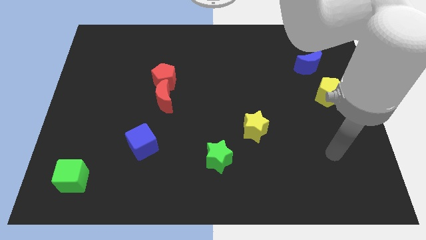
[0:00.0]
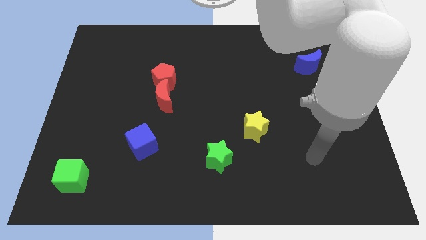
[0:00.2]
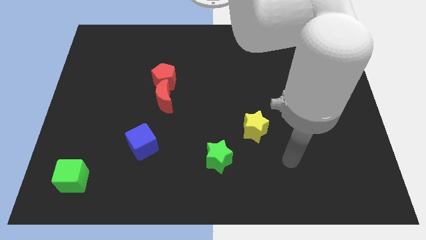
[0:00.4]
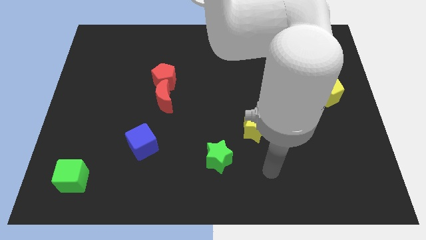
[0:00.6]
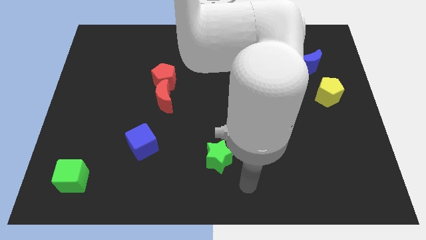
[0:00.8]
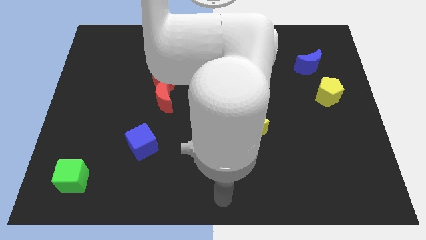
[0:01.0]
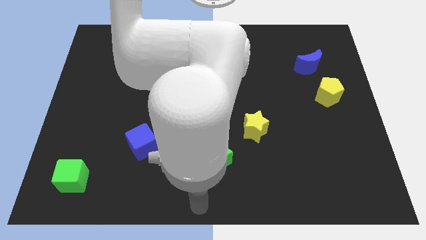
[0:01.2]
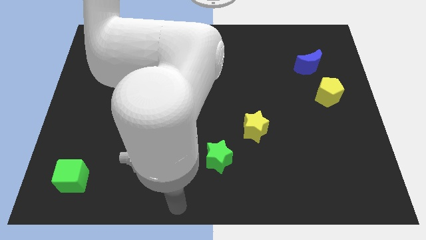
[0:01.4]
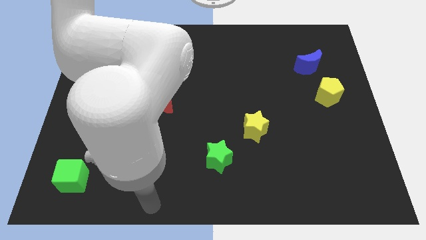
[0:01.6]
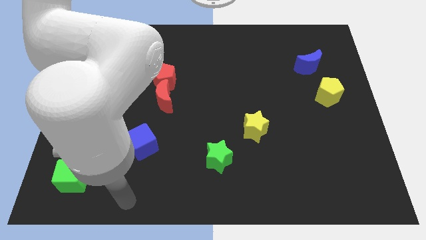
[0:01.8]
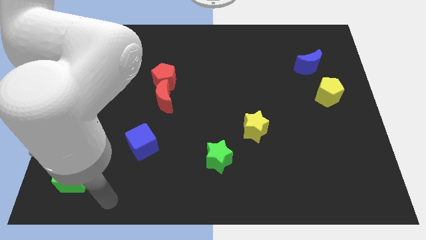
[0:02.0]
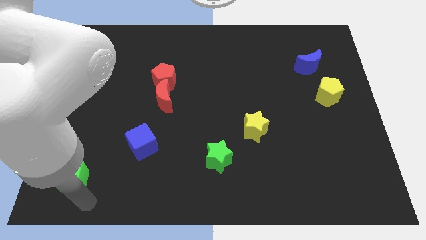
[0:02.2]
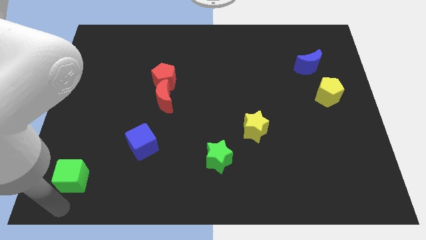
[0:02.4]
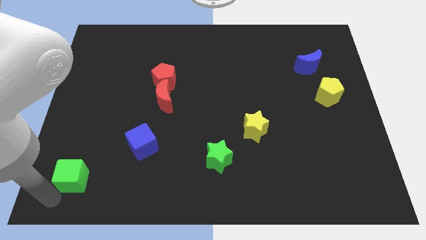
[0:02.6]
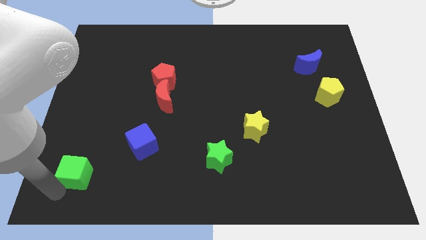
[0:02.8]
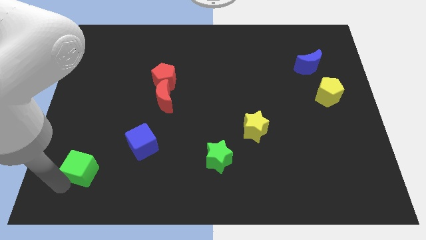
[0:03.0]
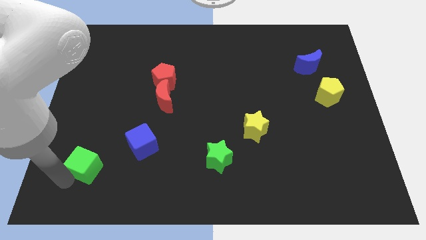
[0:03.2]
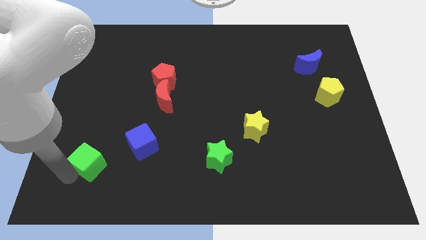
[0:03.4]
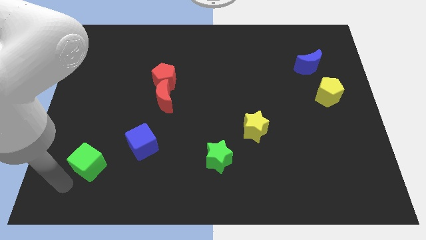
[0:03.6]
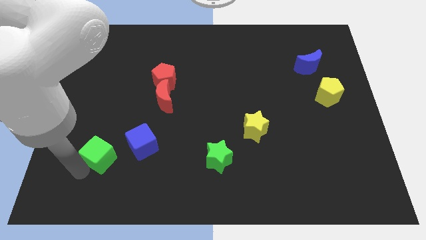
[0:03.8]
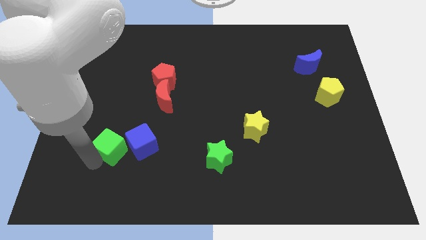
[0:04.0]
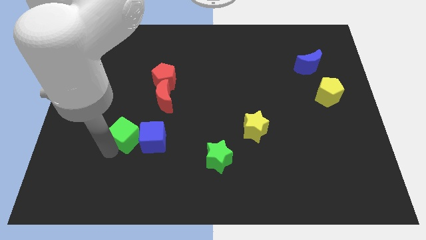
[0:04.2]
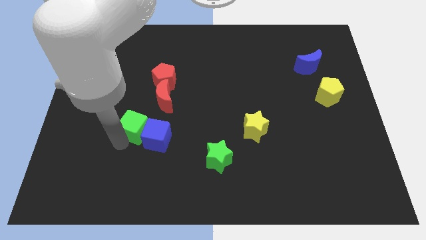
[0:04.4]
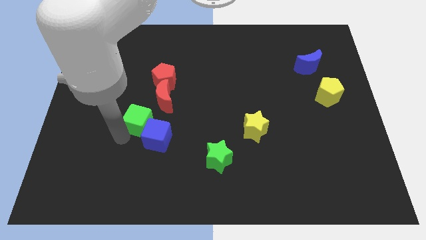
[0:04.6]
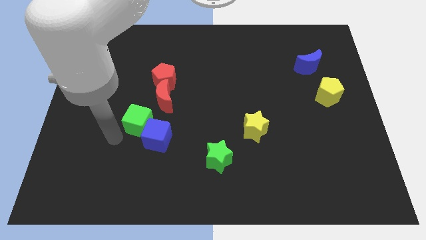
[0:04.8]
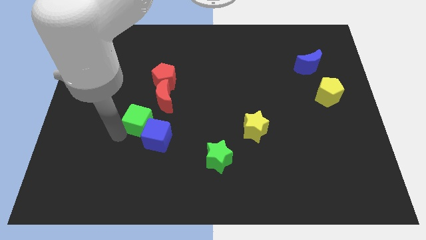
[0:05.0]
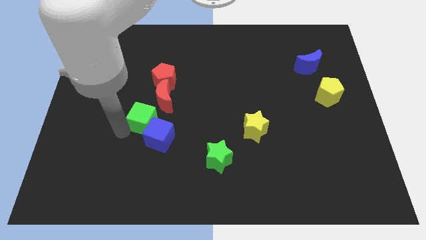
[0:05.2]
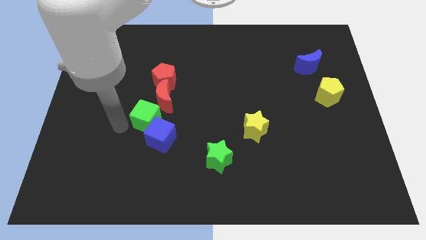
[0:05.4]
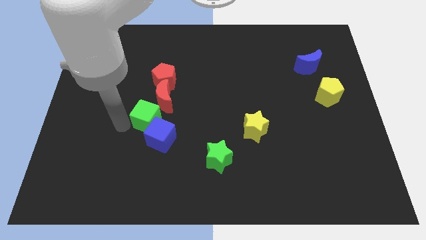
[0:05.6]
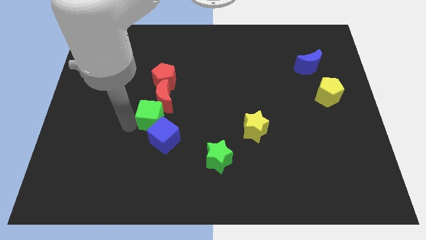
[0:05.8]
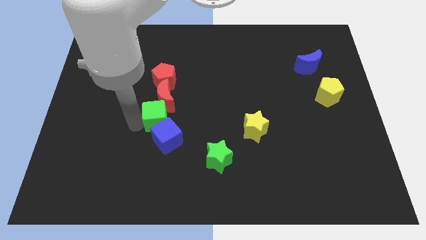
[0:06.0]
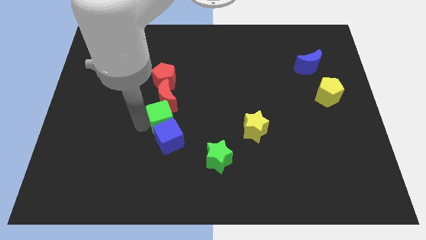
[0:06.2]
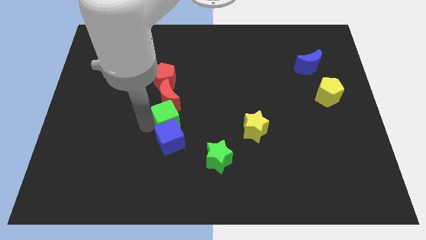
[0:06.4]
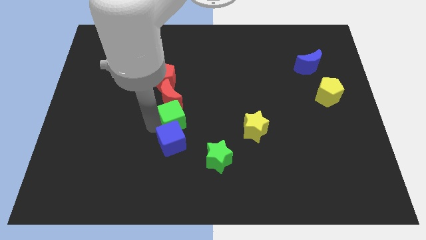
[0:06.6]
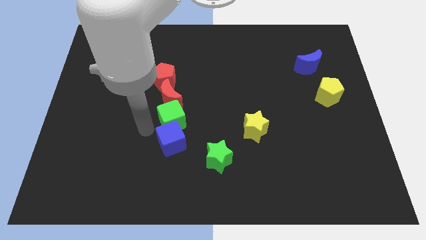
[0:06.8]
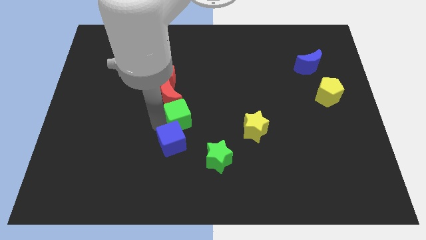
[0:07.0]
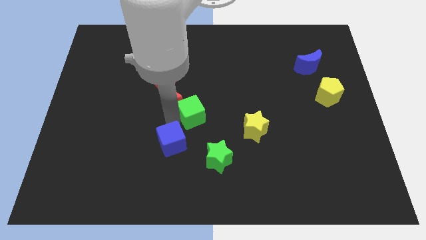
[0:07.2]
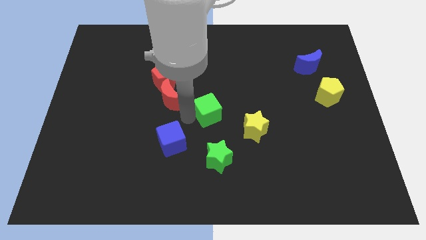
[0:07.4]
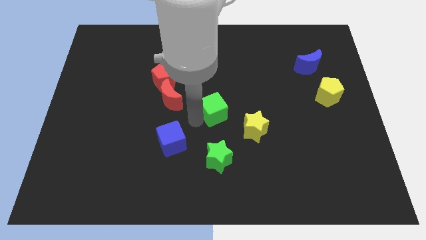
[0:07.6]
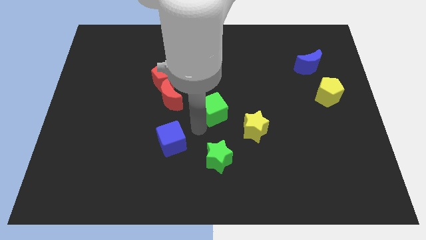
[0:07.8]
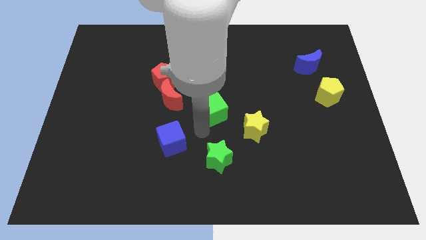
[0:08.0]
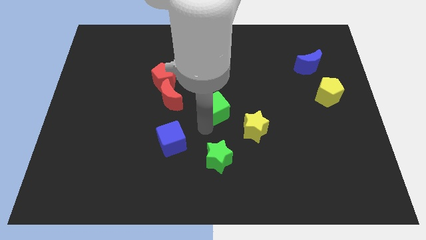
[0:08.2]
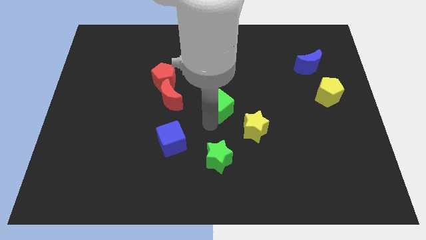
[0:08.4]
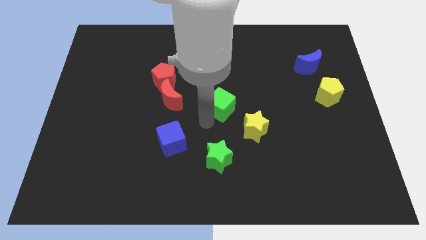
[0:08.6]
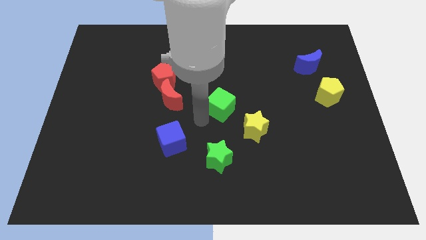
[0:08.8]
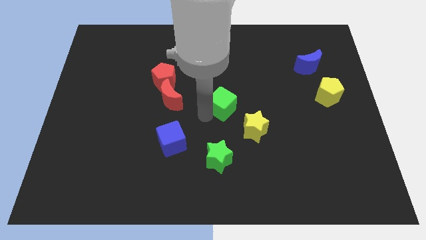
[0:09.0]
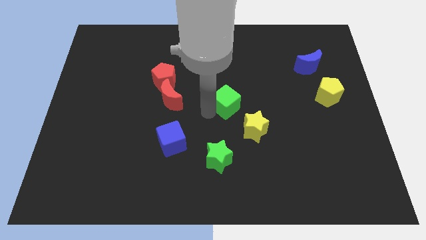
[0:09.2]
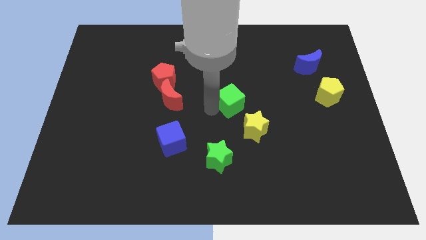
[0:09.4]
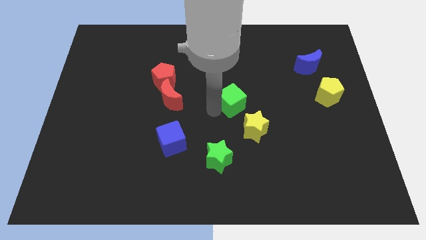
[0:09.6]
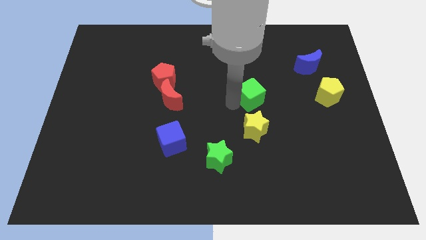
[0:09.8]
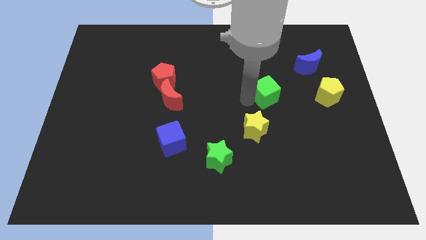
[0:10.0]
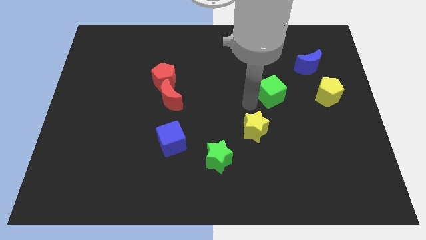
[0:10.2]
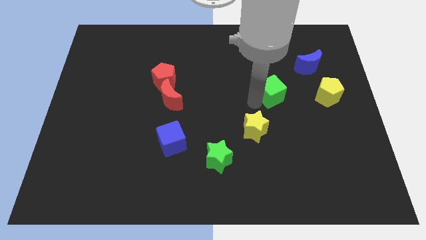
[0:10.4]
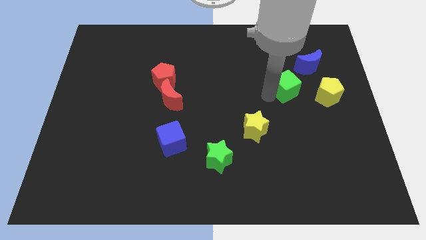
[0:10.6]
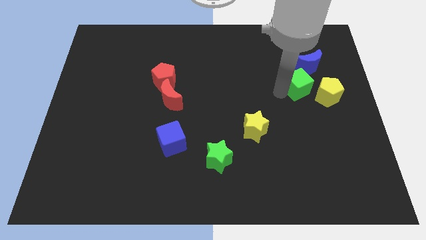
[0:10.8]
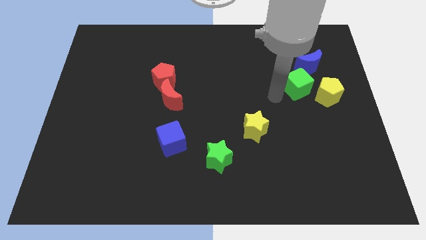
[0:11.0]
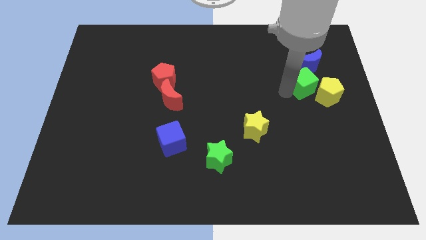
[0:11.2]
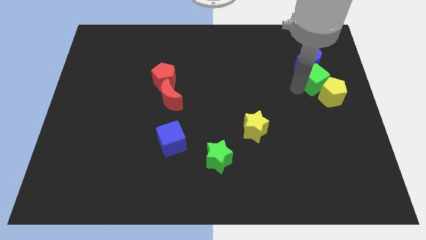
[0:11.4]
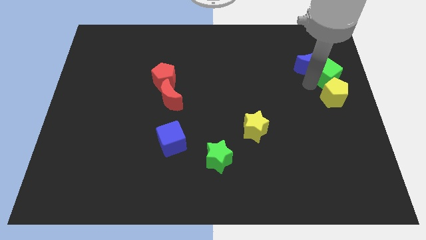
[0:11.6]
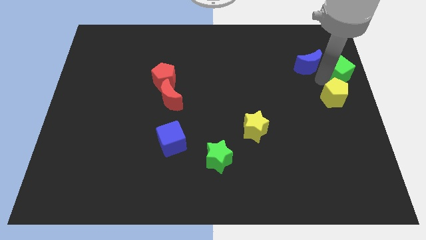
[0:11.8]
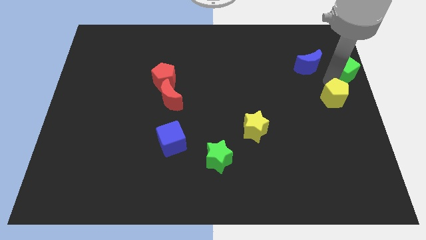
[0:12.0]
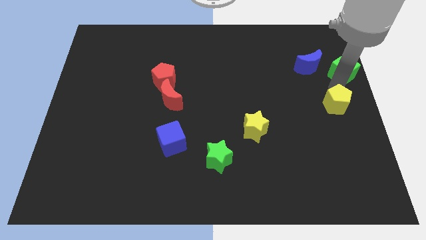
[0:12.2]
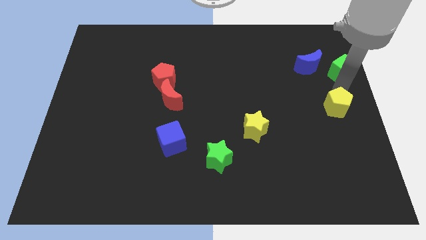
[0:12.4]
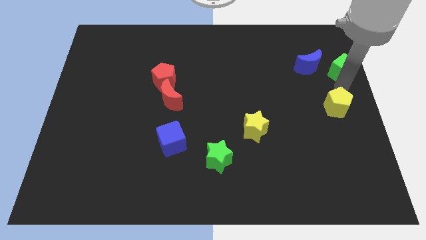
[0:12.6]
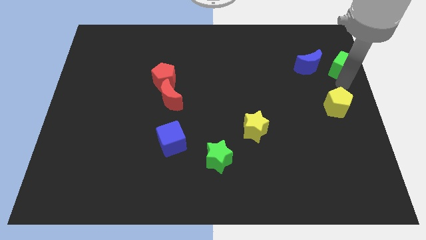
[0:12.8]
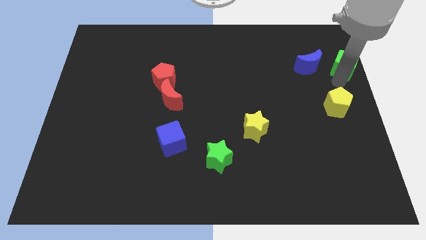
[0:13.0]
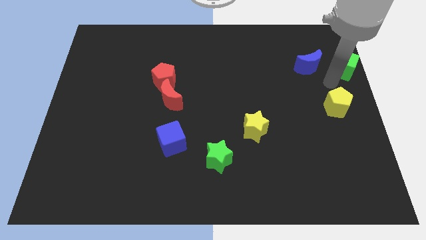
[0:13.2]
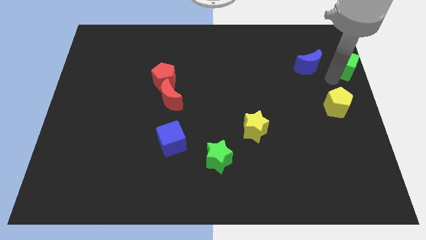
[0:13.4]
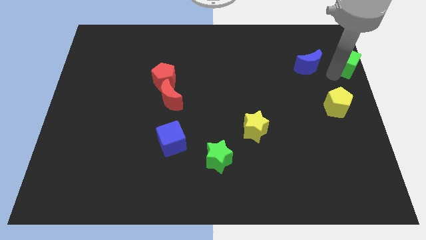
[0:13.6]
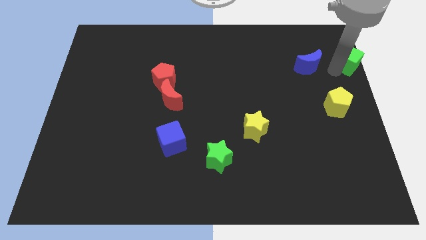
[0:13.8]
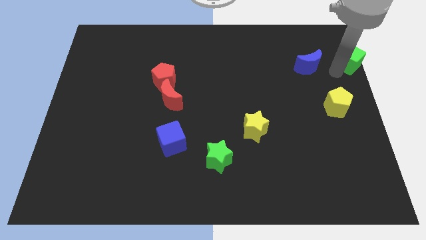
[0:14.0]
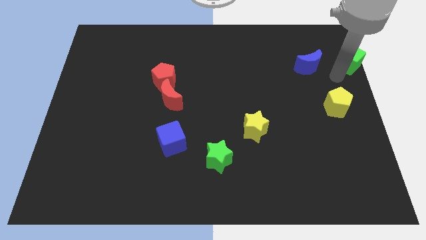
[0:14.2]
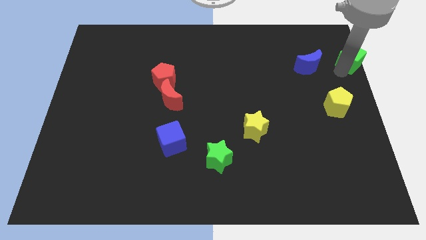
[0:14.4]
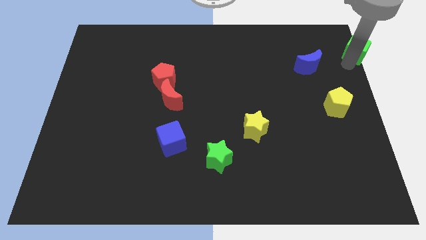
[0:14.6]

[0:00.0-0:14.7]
put the green cube to the top right corner
